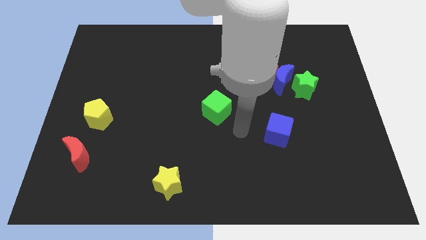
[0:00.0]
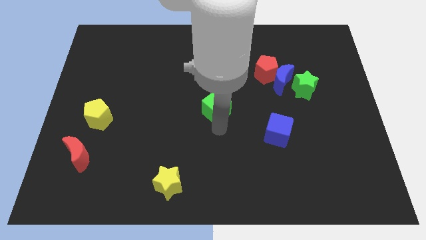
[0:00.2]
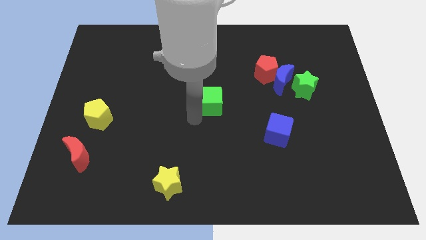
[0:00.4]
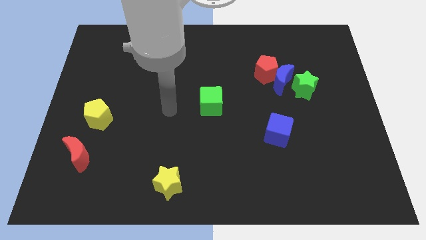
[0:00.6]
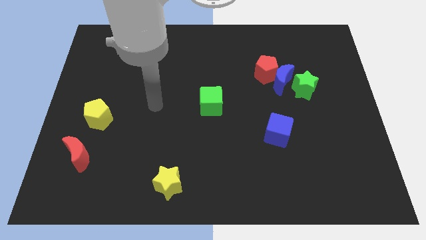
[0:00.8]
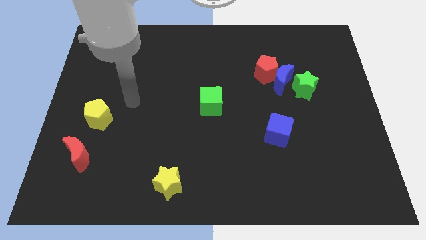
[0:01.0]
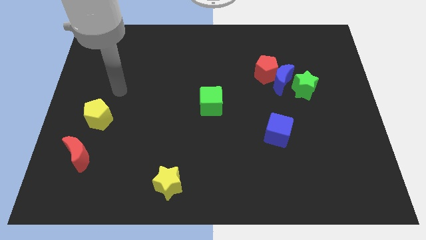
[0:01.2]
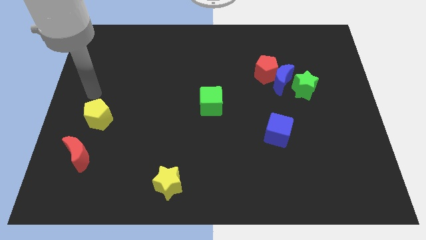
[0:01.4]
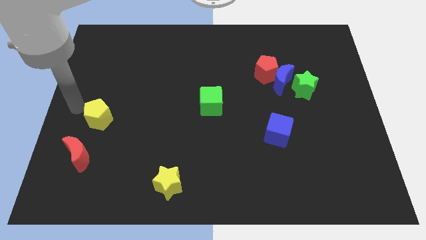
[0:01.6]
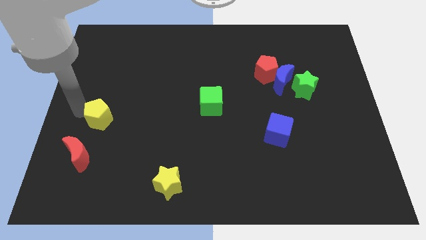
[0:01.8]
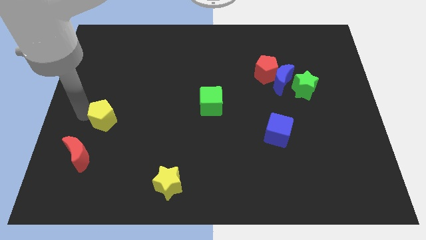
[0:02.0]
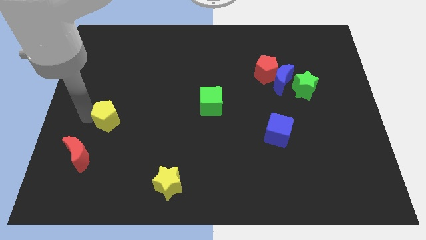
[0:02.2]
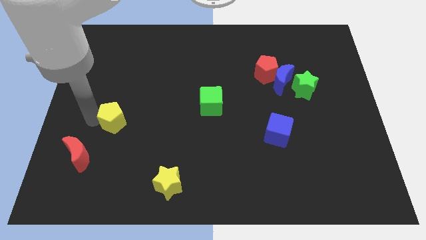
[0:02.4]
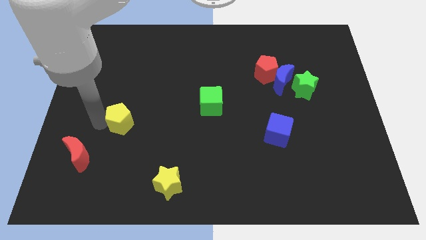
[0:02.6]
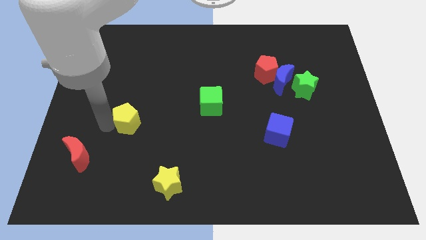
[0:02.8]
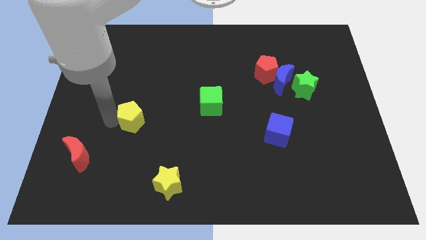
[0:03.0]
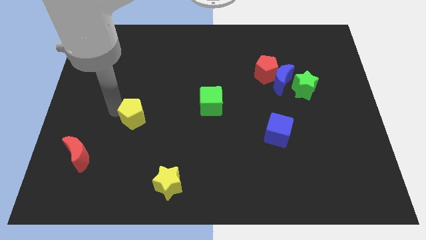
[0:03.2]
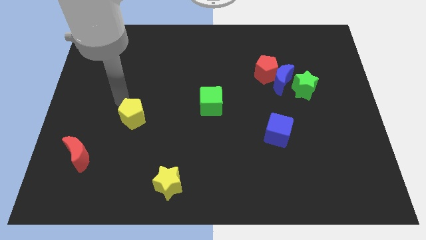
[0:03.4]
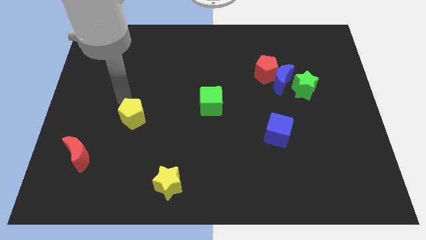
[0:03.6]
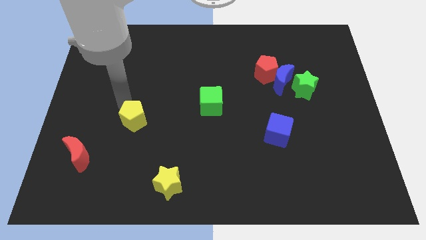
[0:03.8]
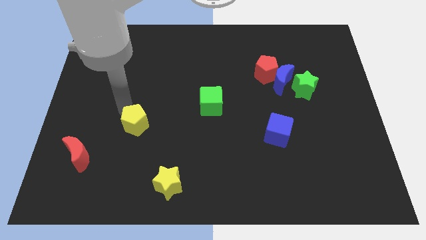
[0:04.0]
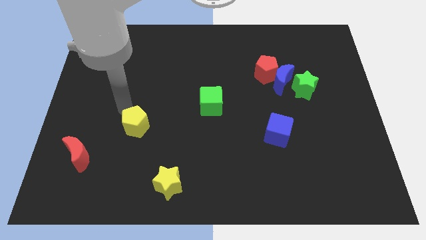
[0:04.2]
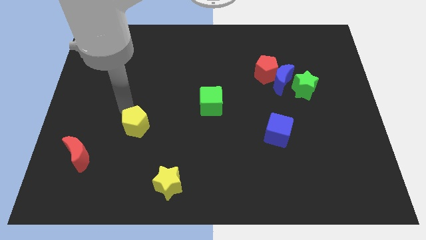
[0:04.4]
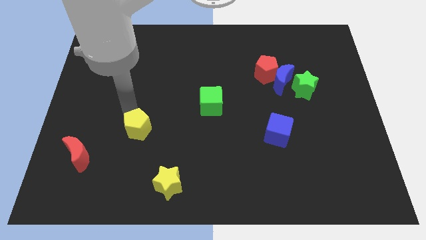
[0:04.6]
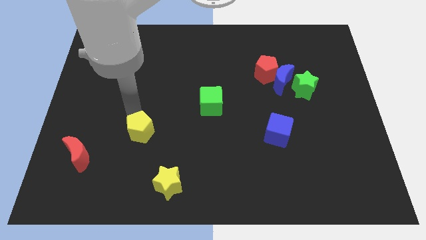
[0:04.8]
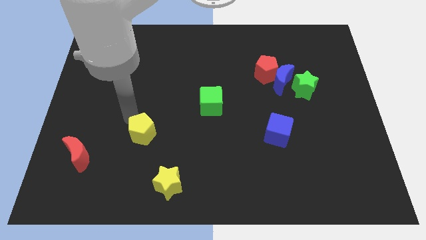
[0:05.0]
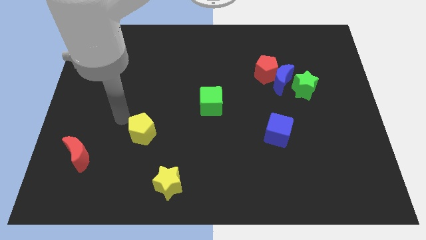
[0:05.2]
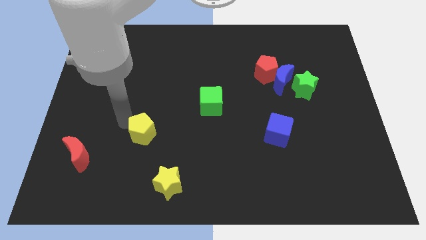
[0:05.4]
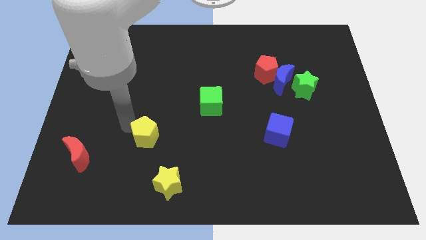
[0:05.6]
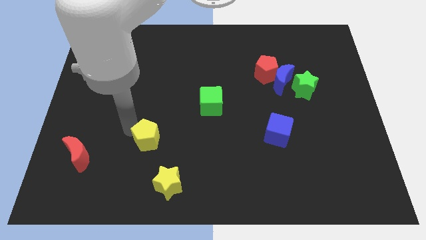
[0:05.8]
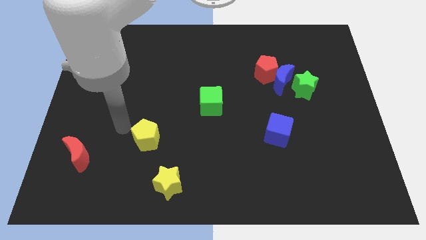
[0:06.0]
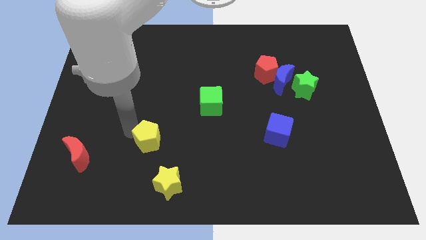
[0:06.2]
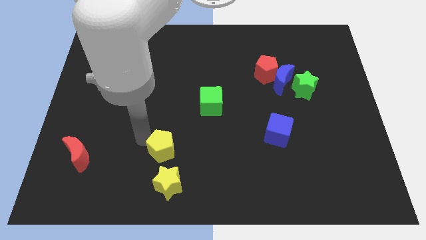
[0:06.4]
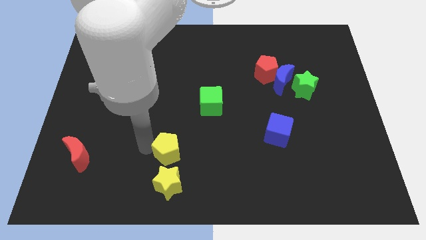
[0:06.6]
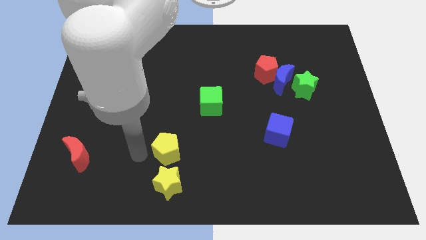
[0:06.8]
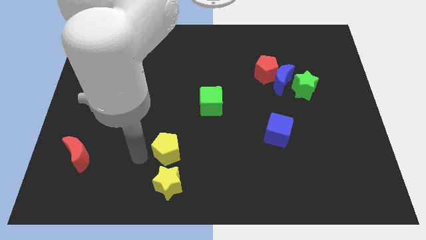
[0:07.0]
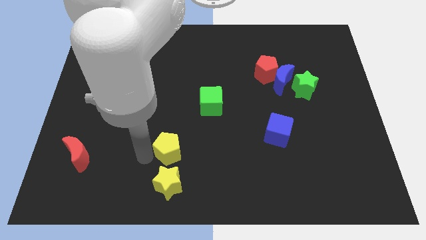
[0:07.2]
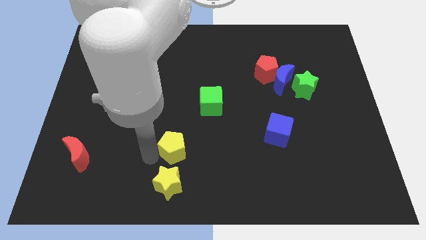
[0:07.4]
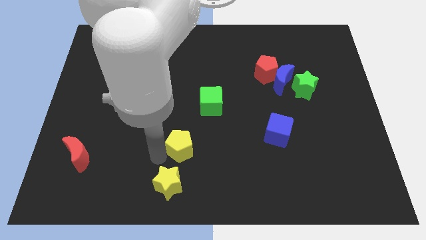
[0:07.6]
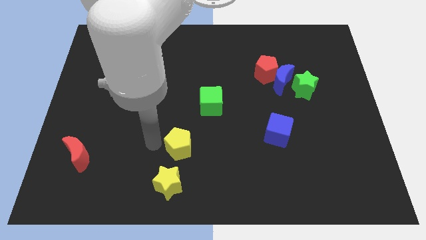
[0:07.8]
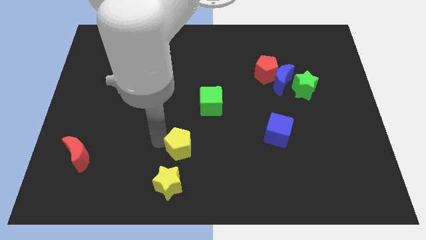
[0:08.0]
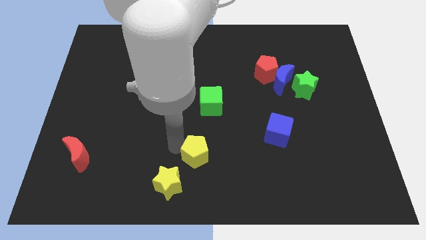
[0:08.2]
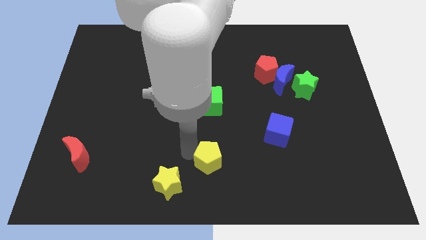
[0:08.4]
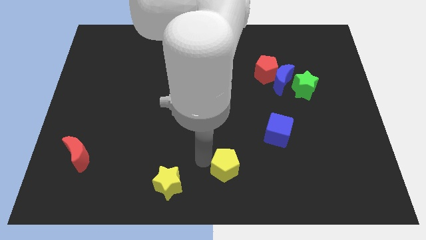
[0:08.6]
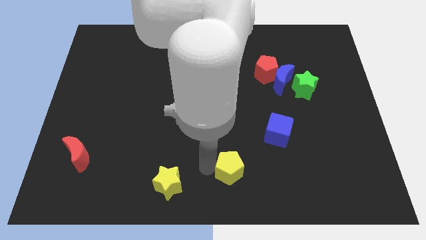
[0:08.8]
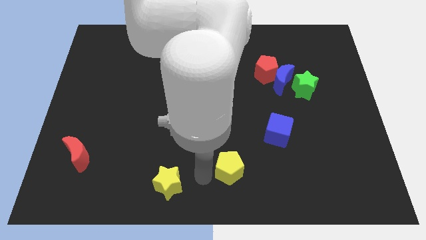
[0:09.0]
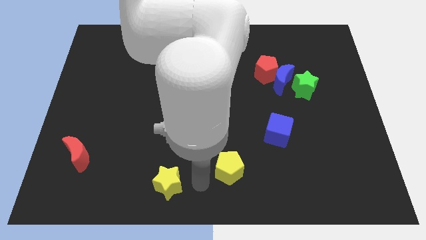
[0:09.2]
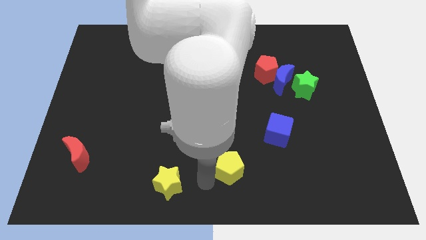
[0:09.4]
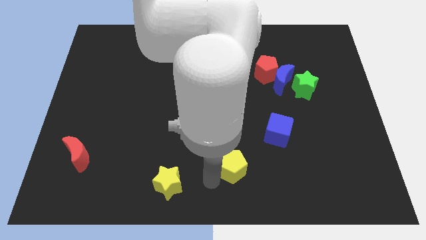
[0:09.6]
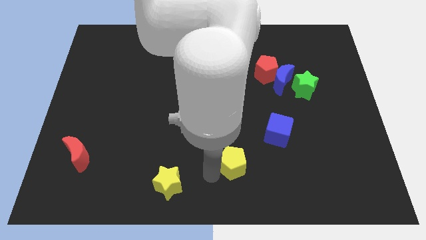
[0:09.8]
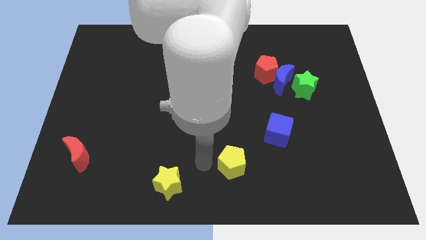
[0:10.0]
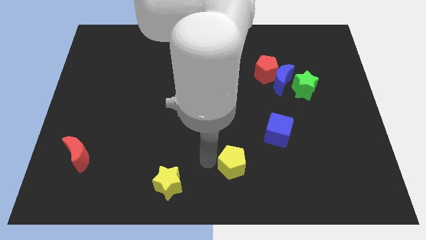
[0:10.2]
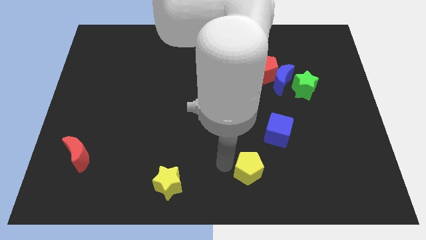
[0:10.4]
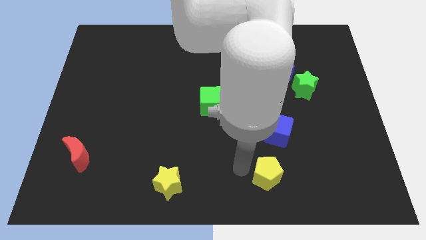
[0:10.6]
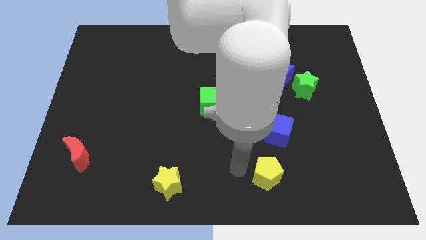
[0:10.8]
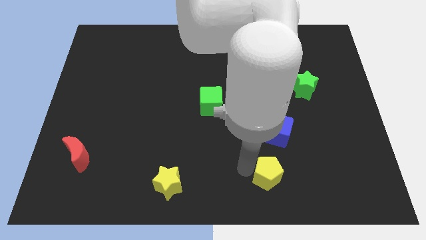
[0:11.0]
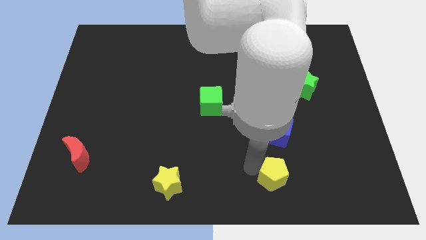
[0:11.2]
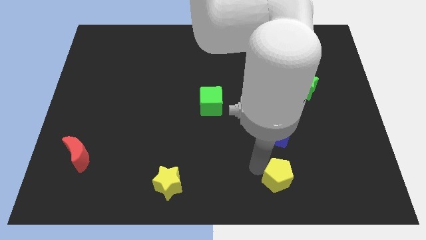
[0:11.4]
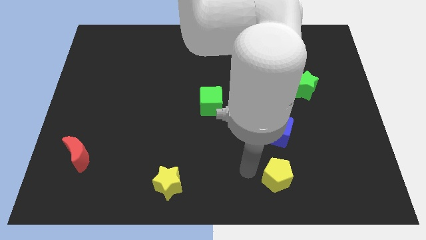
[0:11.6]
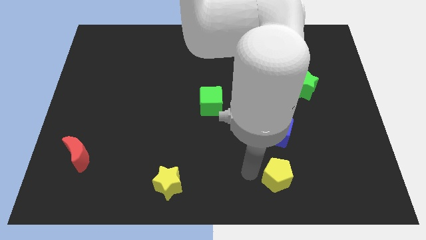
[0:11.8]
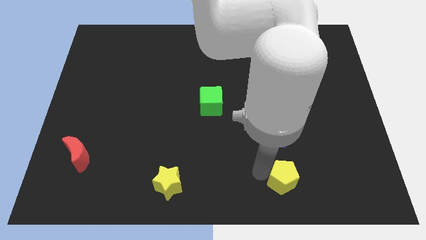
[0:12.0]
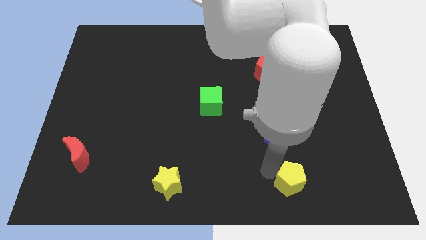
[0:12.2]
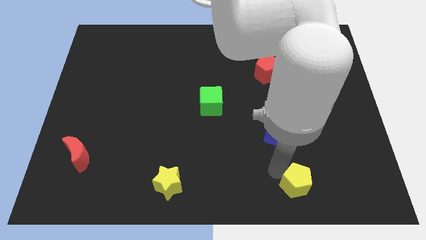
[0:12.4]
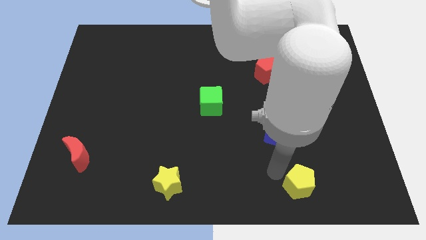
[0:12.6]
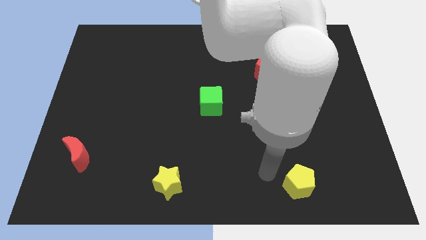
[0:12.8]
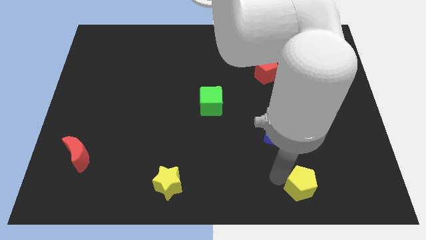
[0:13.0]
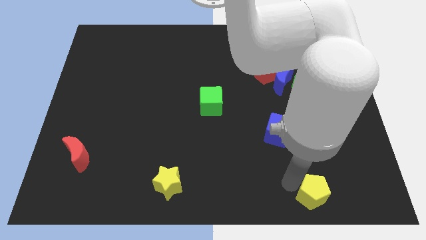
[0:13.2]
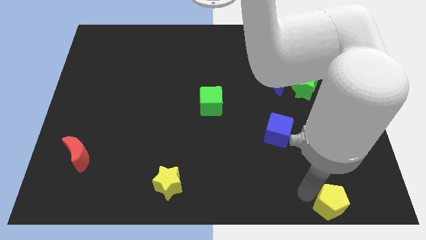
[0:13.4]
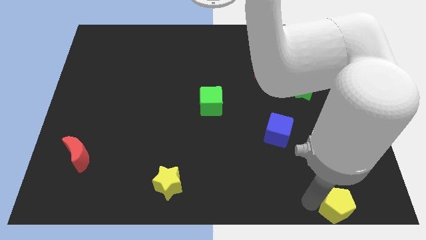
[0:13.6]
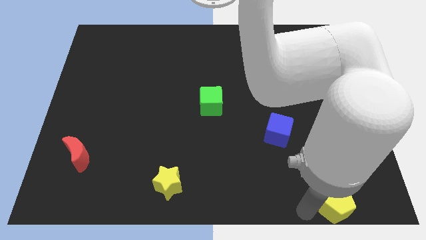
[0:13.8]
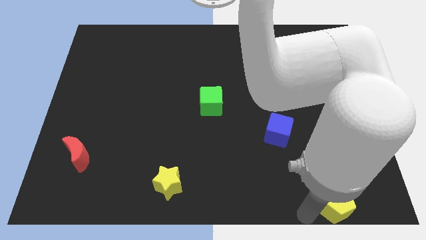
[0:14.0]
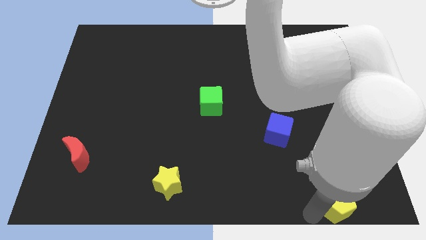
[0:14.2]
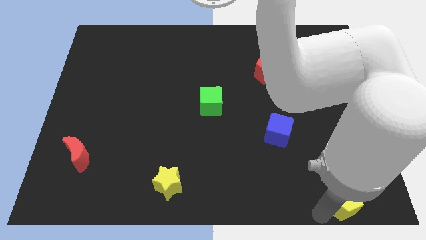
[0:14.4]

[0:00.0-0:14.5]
move the yellow pentagon to the bottom right

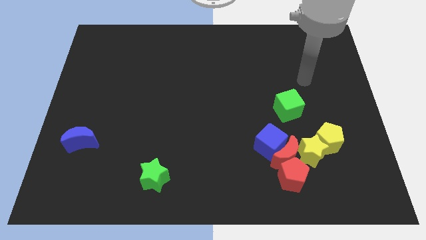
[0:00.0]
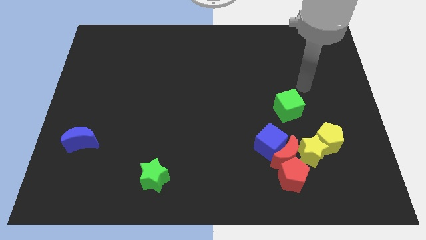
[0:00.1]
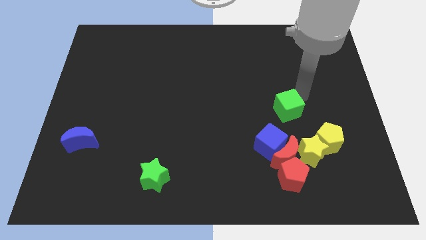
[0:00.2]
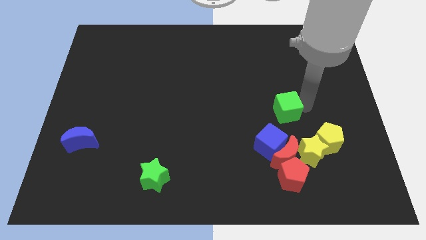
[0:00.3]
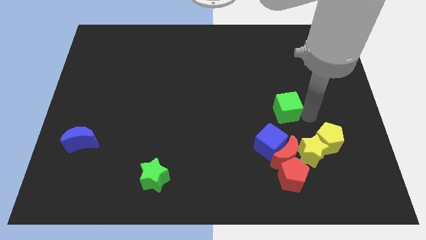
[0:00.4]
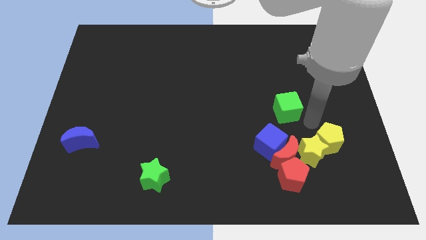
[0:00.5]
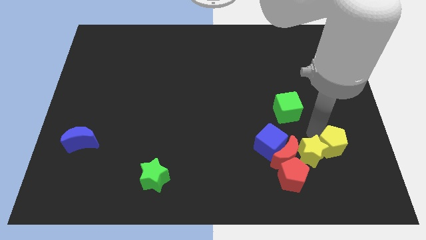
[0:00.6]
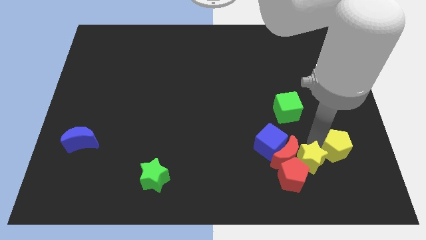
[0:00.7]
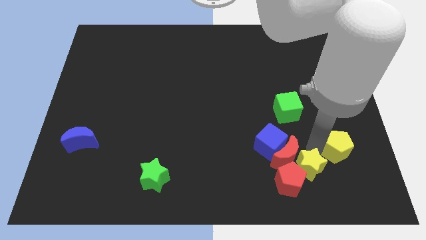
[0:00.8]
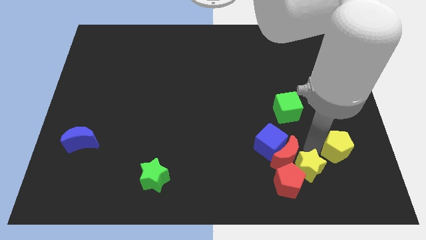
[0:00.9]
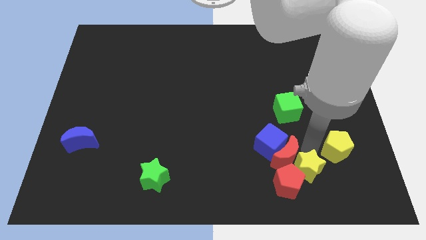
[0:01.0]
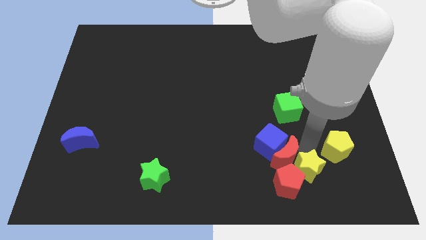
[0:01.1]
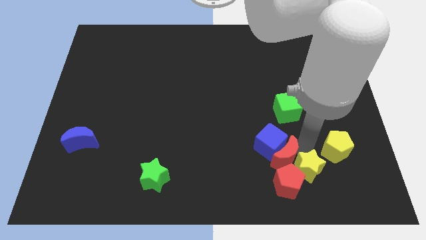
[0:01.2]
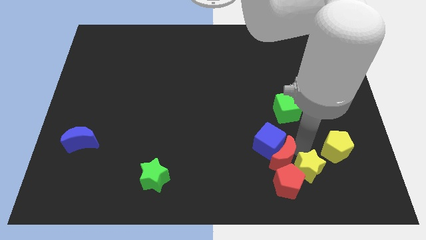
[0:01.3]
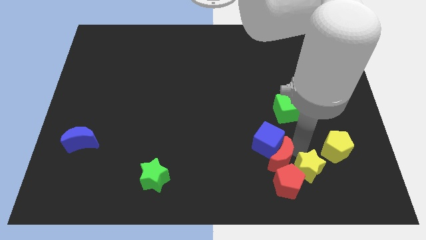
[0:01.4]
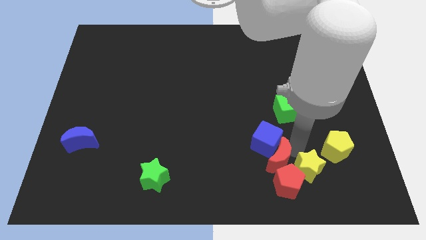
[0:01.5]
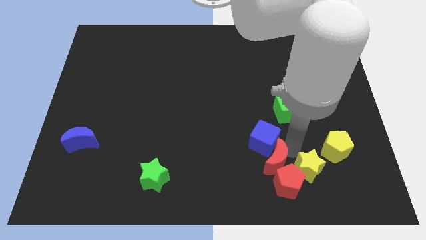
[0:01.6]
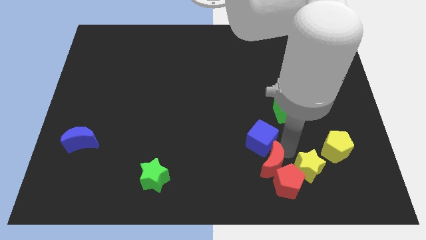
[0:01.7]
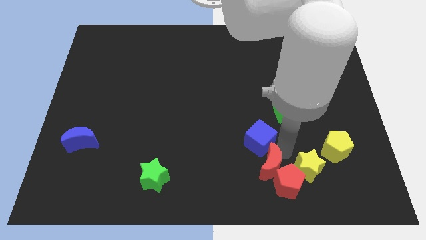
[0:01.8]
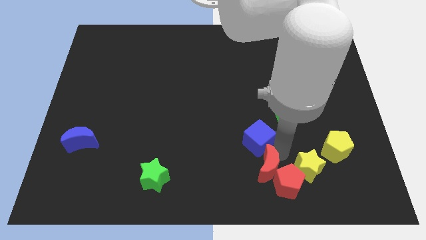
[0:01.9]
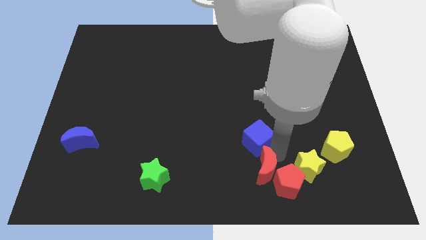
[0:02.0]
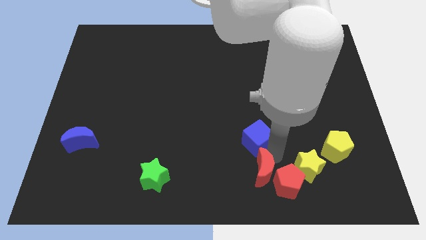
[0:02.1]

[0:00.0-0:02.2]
move the red moon to the bottom
